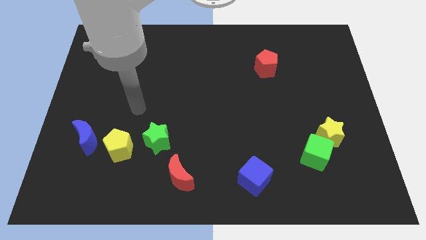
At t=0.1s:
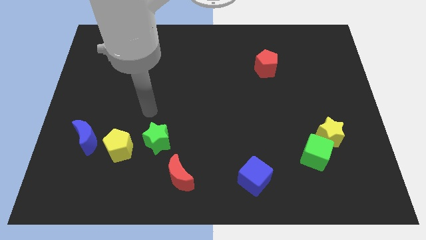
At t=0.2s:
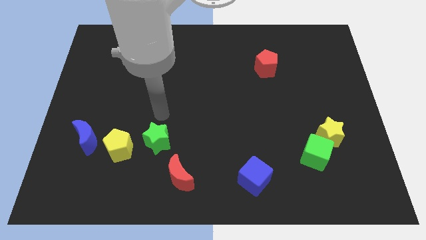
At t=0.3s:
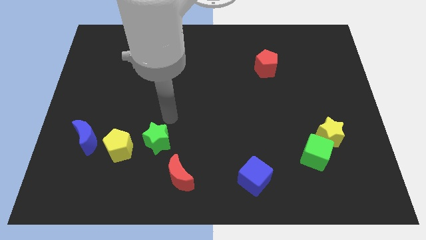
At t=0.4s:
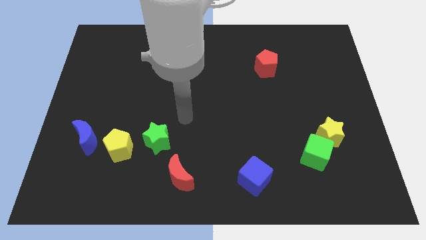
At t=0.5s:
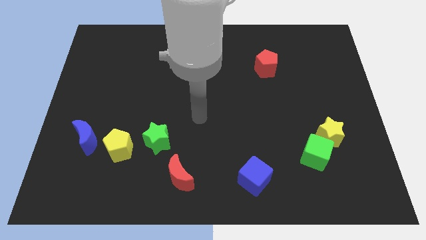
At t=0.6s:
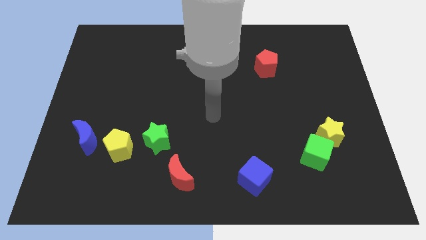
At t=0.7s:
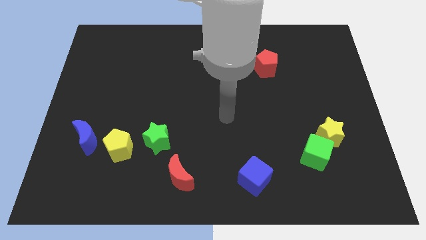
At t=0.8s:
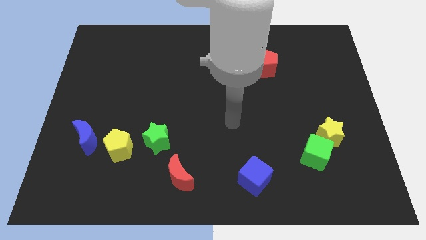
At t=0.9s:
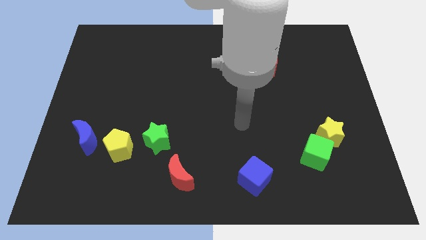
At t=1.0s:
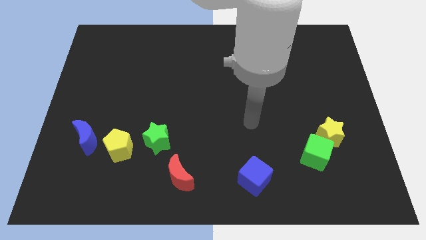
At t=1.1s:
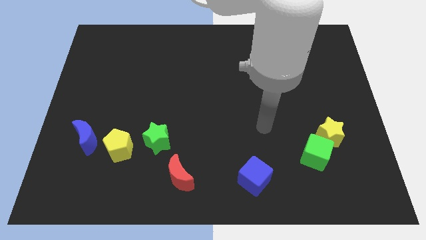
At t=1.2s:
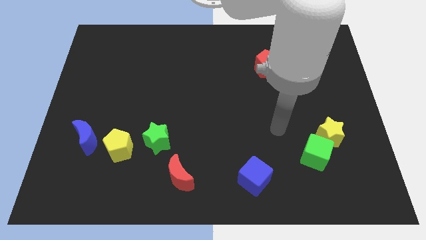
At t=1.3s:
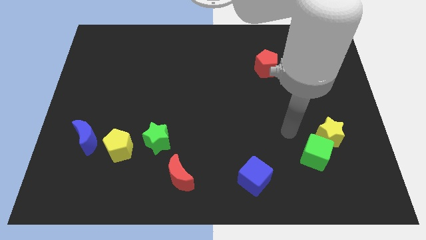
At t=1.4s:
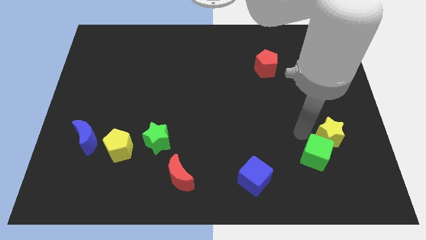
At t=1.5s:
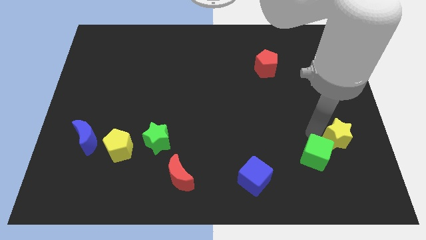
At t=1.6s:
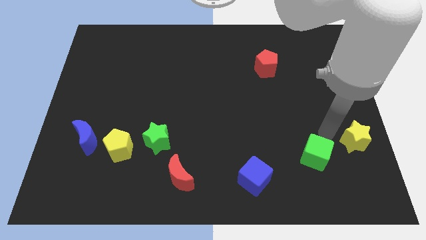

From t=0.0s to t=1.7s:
separate the green cube from the yellow star

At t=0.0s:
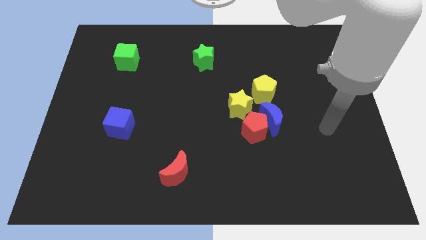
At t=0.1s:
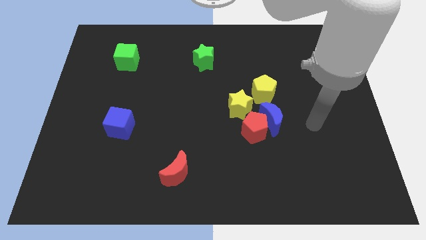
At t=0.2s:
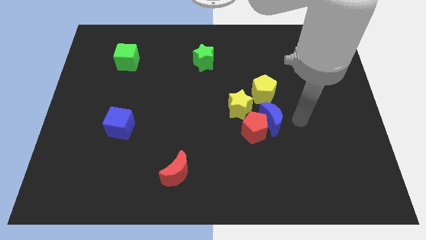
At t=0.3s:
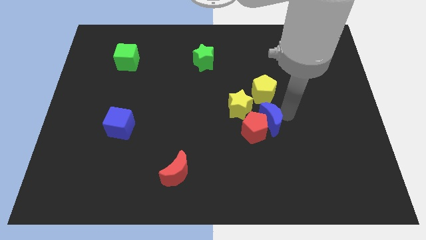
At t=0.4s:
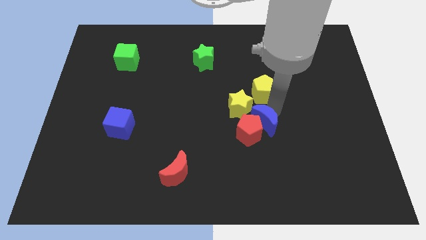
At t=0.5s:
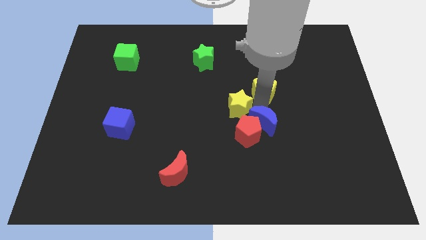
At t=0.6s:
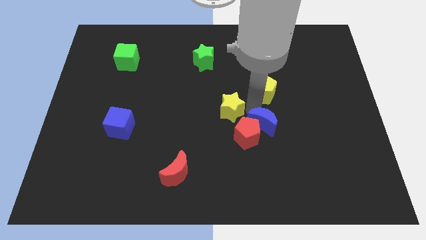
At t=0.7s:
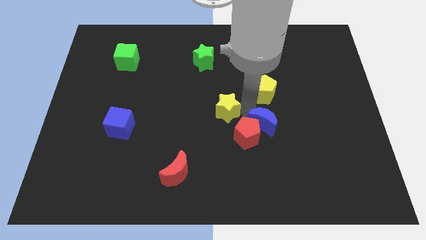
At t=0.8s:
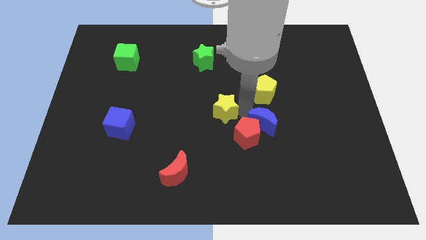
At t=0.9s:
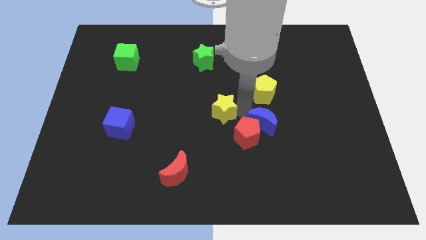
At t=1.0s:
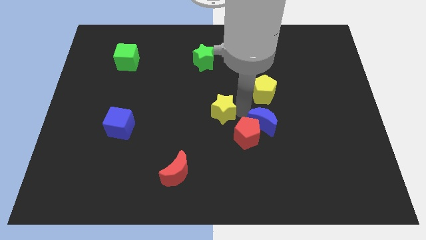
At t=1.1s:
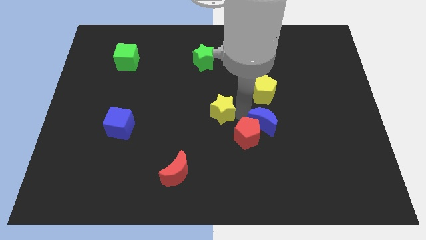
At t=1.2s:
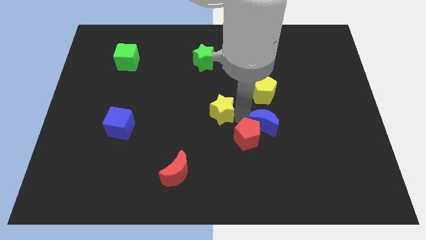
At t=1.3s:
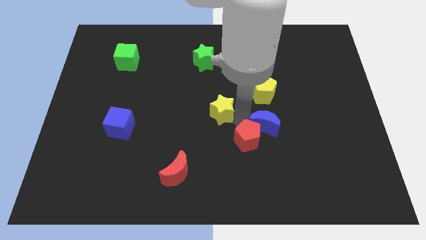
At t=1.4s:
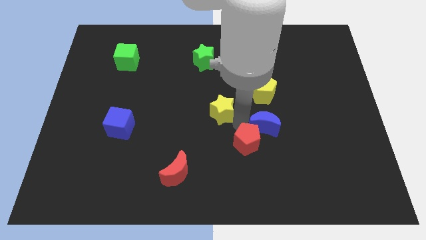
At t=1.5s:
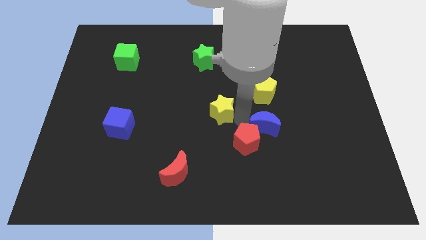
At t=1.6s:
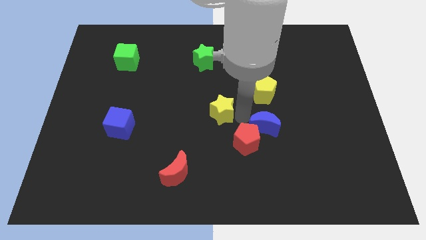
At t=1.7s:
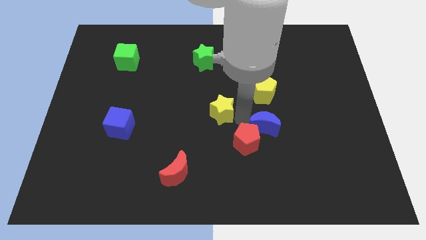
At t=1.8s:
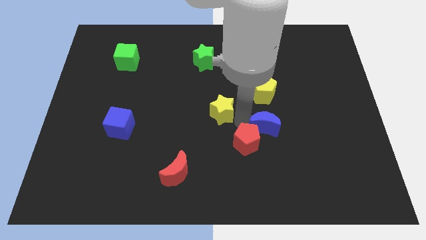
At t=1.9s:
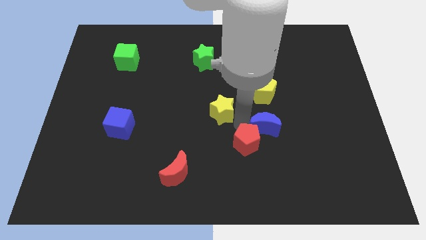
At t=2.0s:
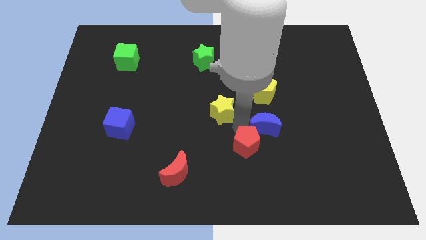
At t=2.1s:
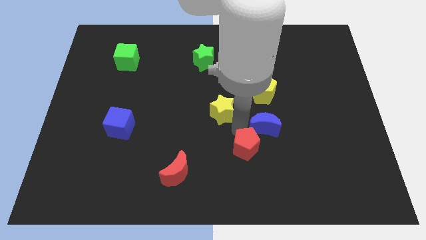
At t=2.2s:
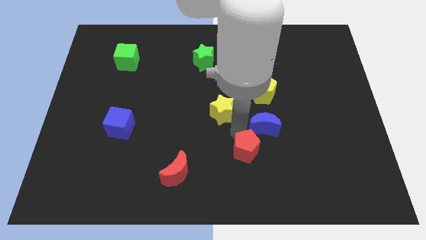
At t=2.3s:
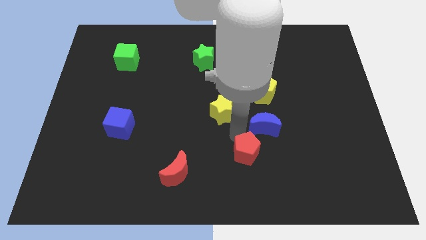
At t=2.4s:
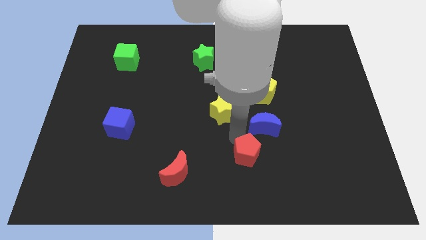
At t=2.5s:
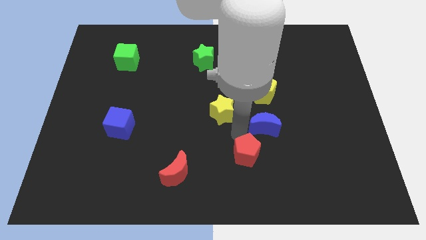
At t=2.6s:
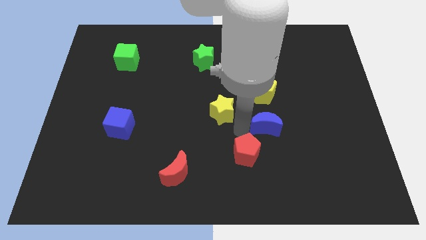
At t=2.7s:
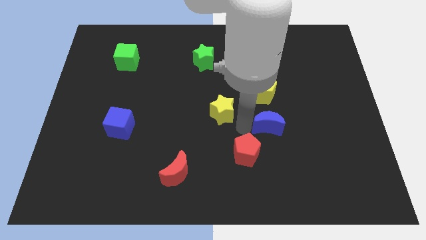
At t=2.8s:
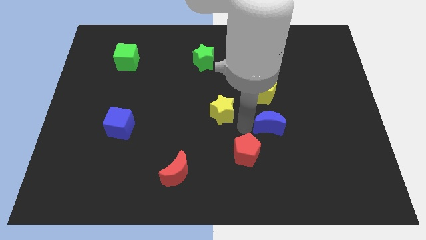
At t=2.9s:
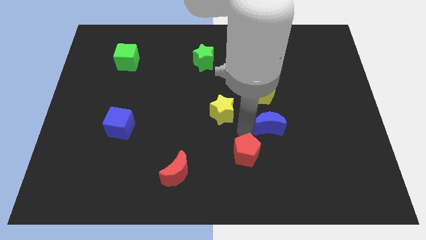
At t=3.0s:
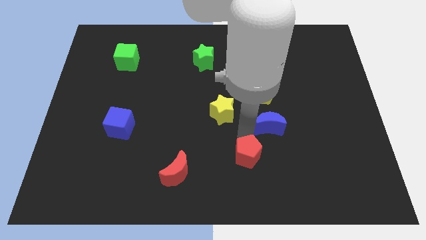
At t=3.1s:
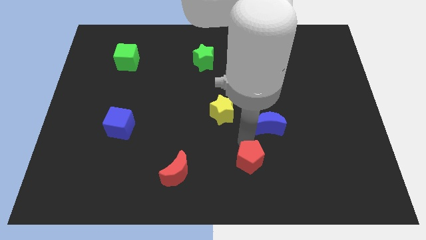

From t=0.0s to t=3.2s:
pull the red pentagon apart from the blue moon and yellow star

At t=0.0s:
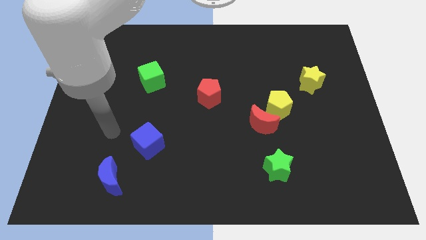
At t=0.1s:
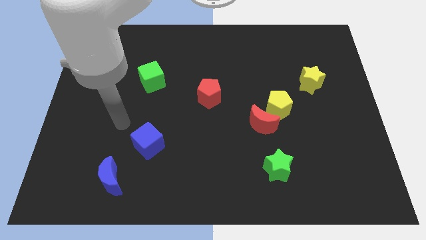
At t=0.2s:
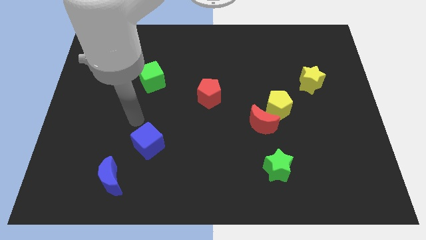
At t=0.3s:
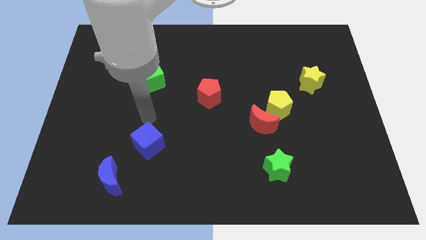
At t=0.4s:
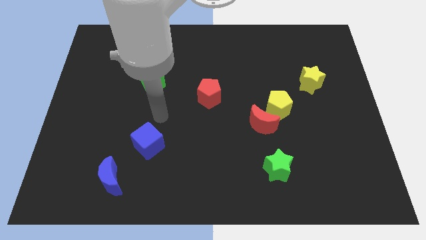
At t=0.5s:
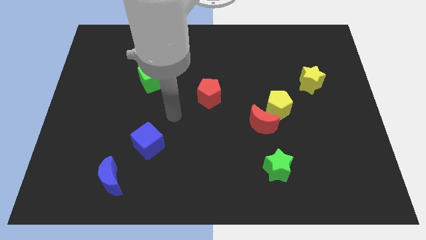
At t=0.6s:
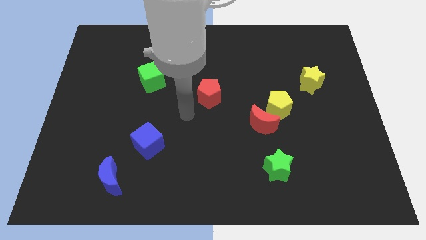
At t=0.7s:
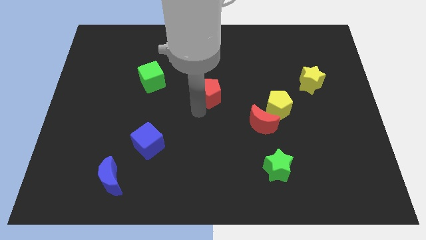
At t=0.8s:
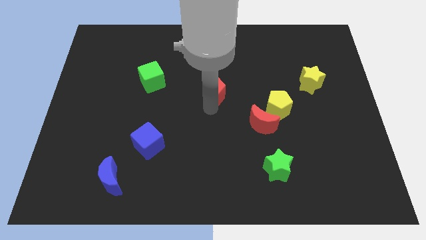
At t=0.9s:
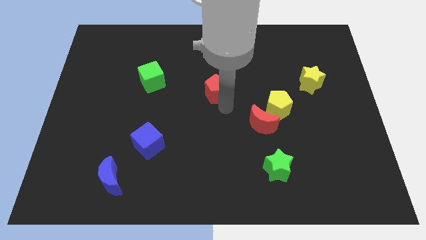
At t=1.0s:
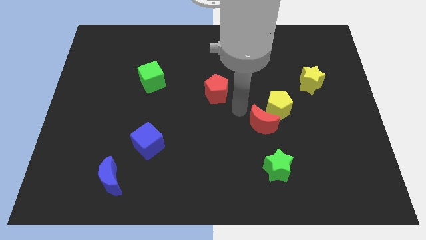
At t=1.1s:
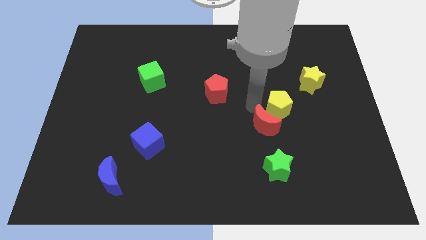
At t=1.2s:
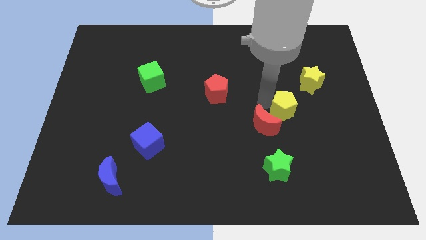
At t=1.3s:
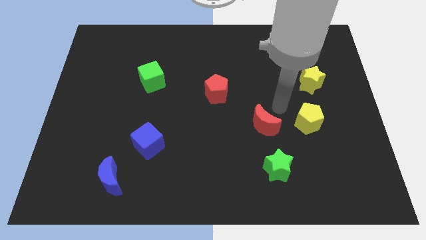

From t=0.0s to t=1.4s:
separate the red moon from the yellow pentagon

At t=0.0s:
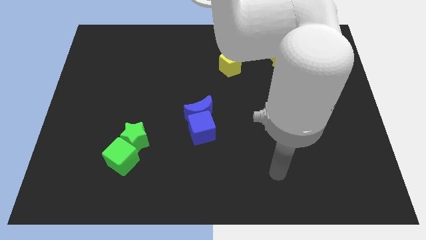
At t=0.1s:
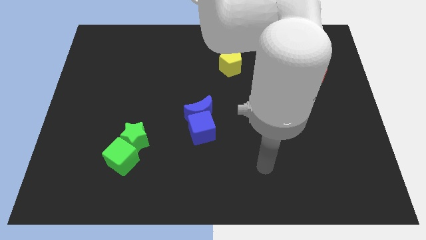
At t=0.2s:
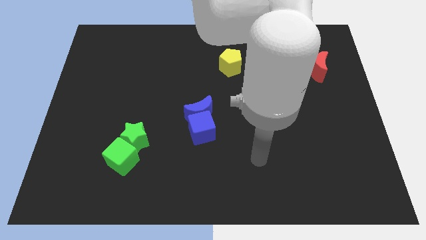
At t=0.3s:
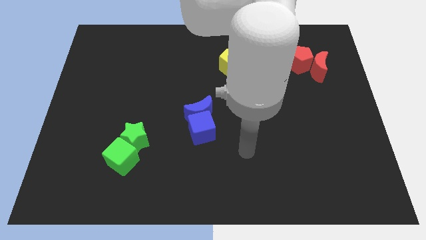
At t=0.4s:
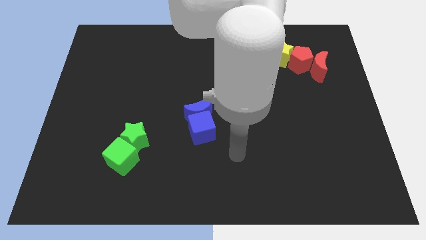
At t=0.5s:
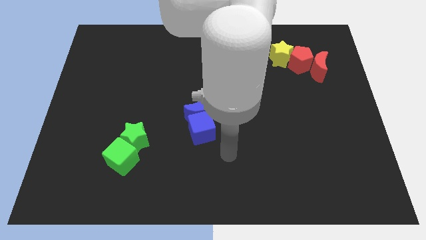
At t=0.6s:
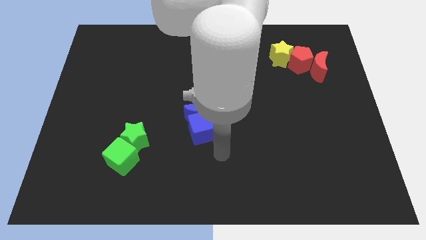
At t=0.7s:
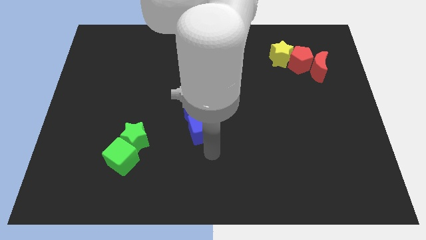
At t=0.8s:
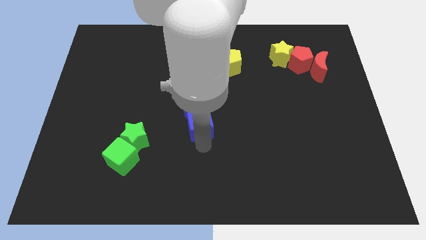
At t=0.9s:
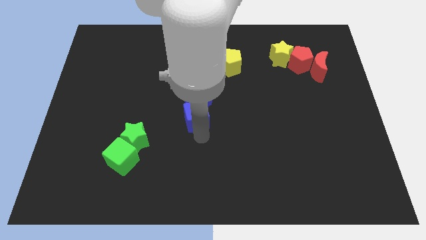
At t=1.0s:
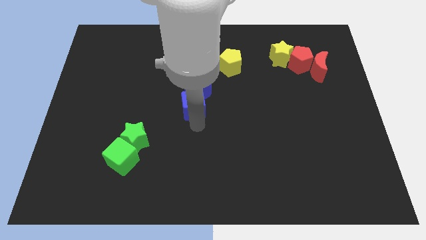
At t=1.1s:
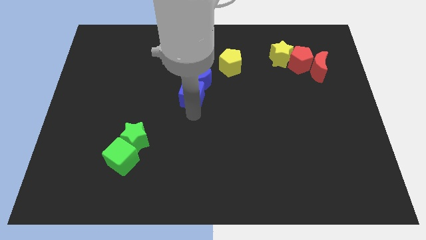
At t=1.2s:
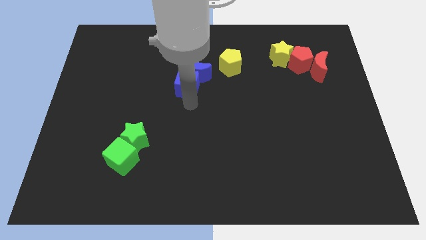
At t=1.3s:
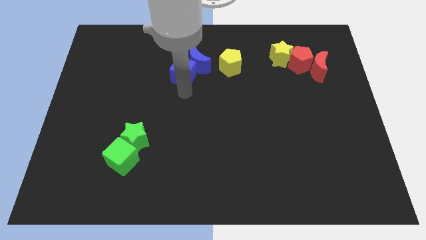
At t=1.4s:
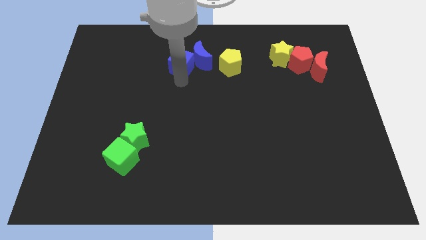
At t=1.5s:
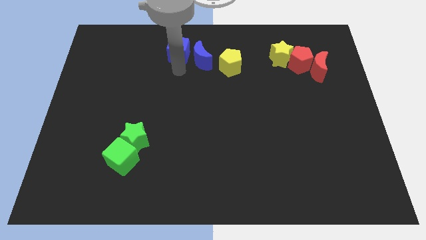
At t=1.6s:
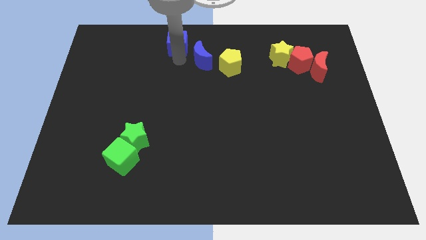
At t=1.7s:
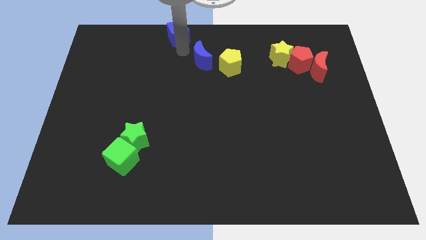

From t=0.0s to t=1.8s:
separate the blue moon from the blue cube

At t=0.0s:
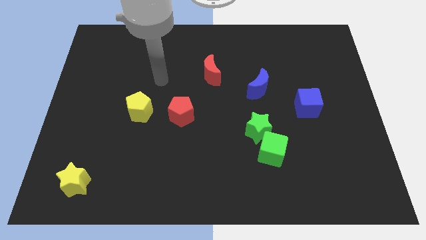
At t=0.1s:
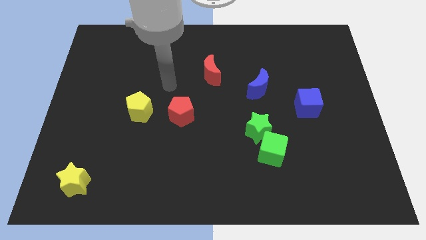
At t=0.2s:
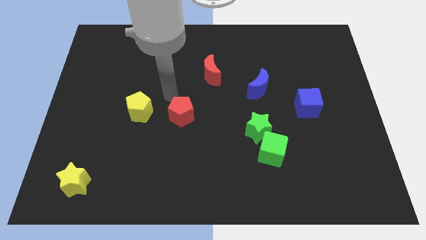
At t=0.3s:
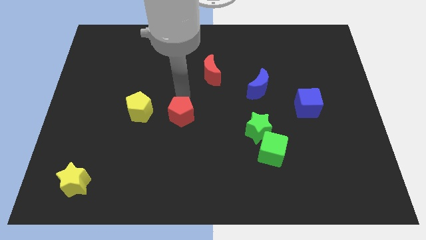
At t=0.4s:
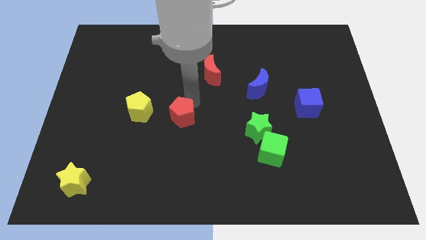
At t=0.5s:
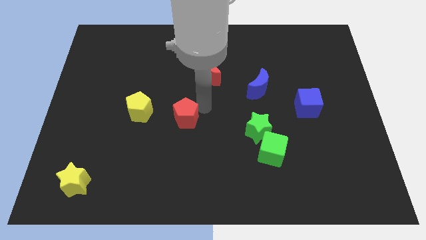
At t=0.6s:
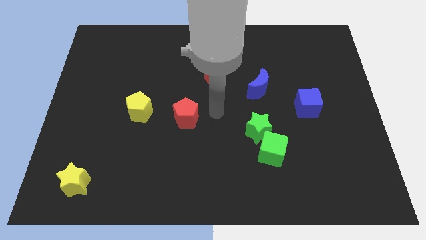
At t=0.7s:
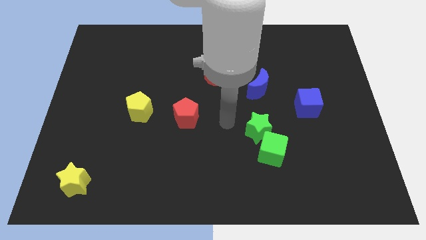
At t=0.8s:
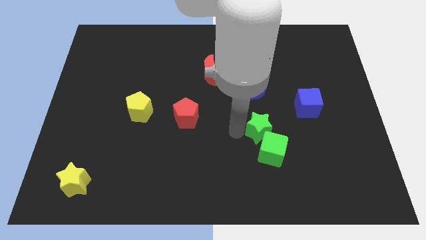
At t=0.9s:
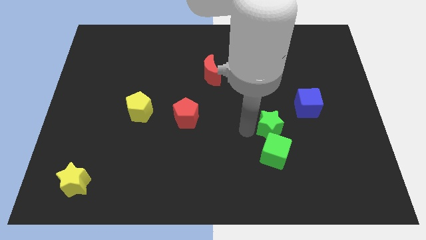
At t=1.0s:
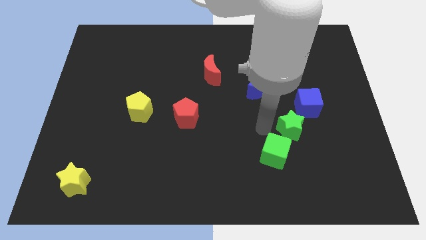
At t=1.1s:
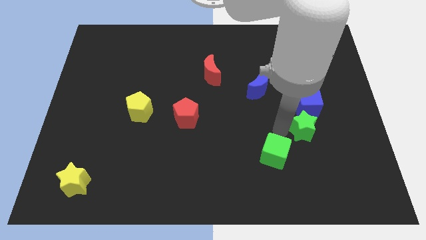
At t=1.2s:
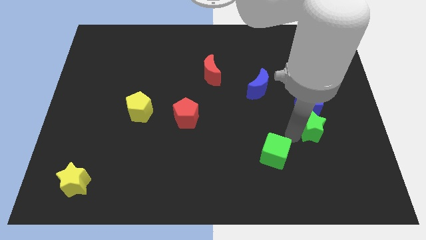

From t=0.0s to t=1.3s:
move the green cube away from the green star
